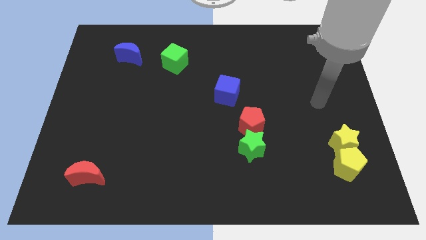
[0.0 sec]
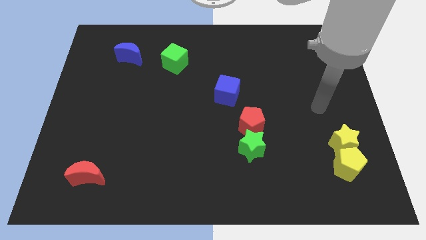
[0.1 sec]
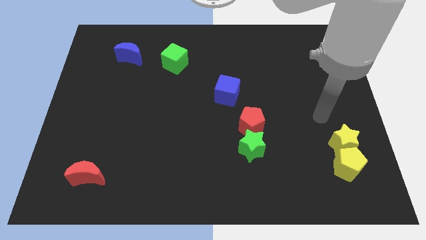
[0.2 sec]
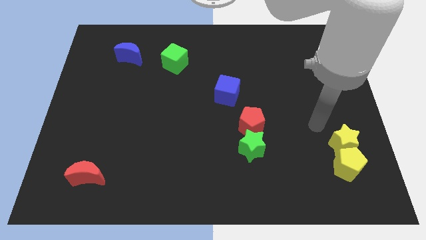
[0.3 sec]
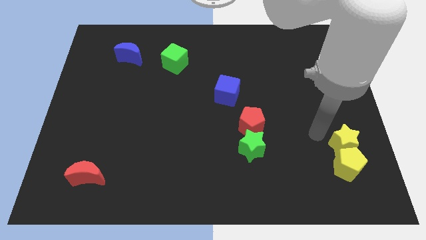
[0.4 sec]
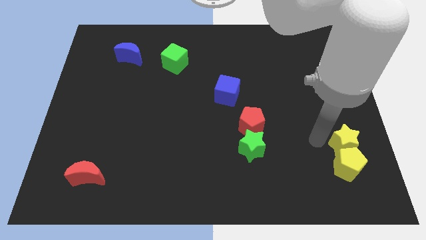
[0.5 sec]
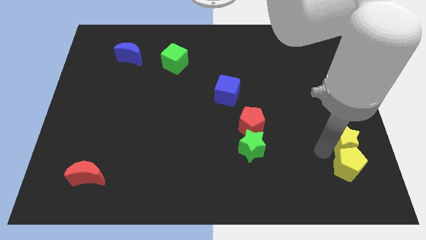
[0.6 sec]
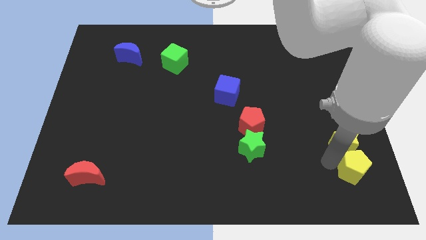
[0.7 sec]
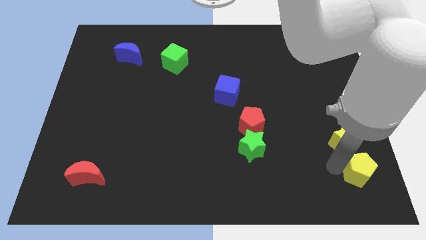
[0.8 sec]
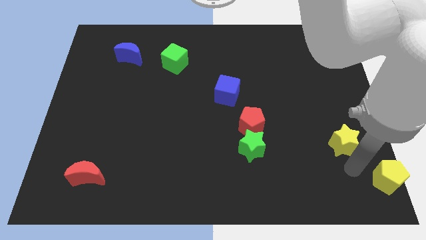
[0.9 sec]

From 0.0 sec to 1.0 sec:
separate the yellow star from the yellow pentagon

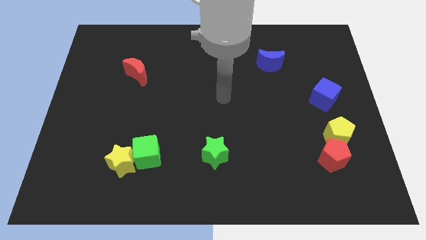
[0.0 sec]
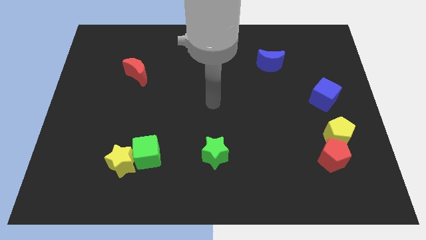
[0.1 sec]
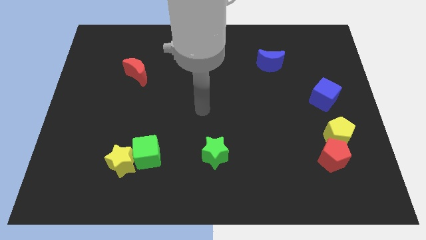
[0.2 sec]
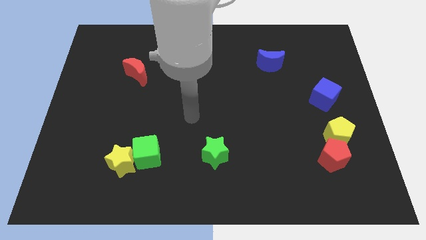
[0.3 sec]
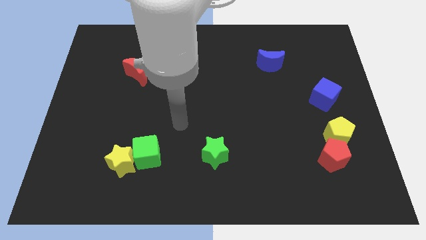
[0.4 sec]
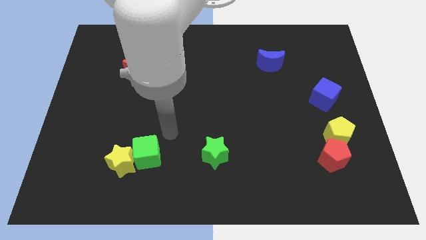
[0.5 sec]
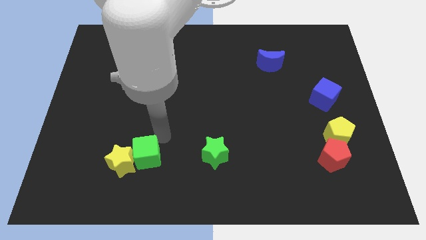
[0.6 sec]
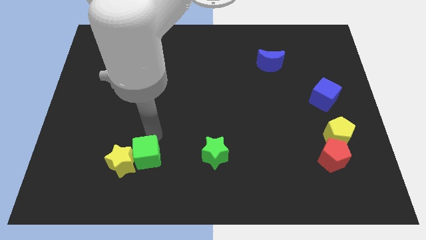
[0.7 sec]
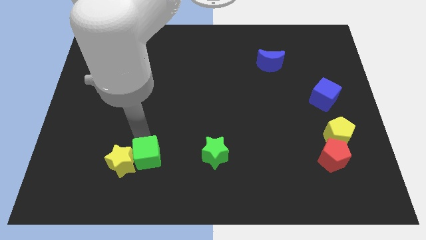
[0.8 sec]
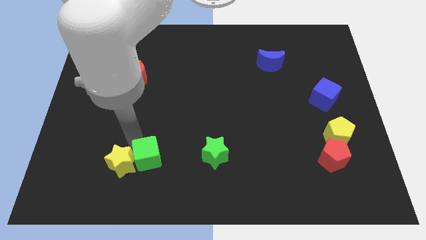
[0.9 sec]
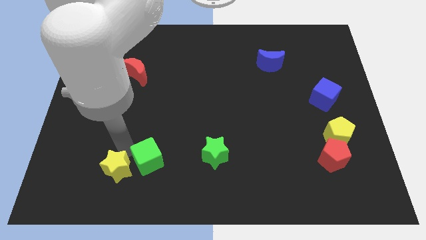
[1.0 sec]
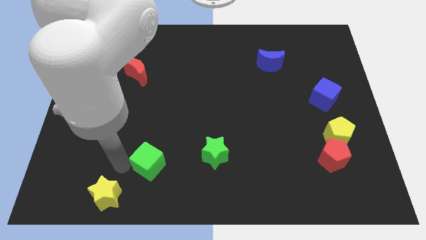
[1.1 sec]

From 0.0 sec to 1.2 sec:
pull the green cube apart from the yellow star

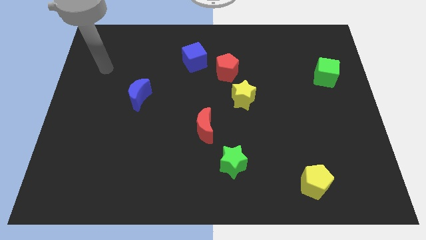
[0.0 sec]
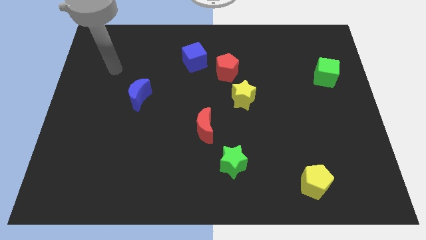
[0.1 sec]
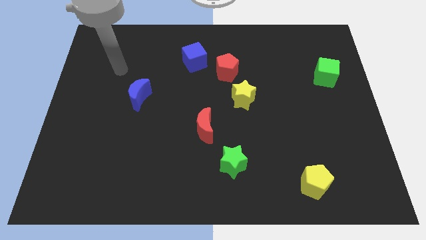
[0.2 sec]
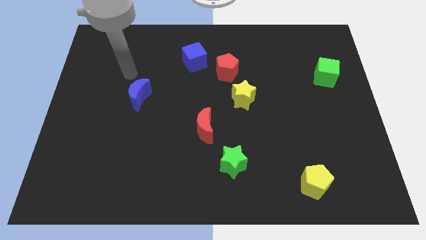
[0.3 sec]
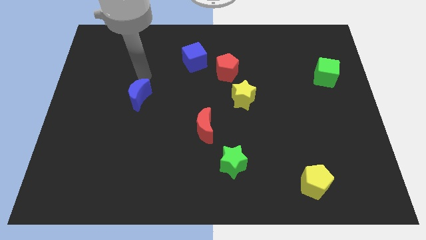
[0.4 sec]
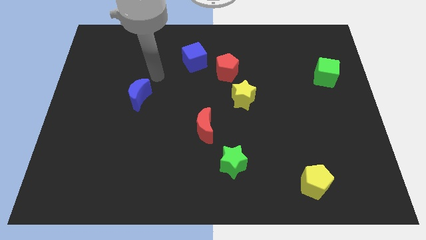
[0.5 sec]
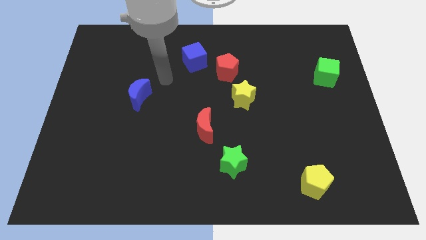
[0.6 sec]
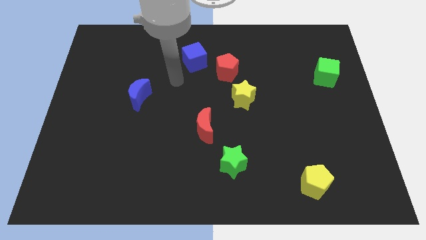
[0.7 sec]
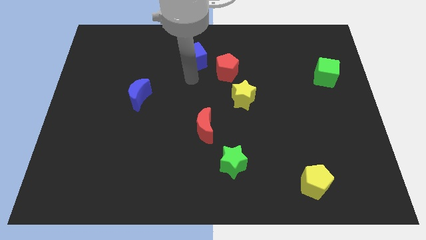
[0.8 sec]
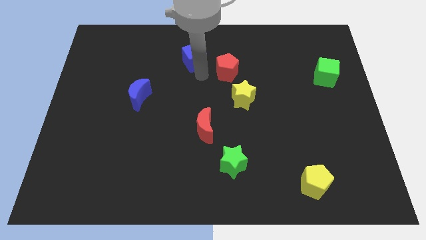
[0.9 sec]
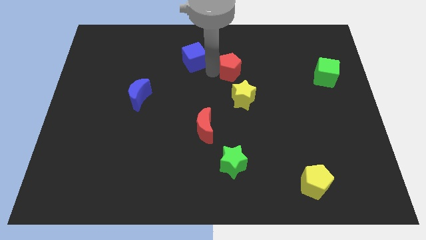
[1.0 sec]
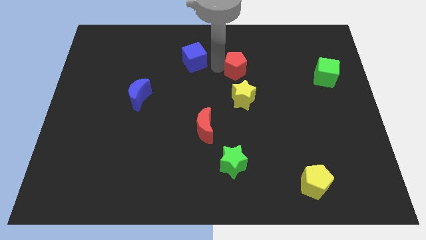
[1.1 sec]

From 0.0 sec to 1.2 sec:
separate the blue cube from the red pentagon

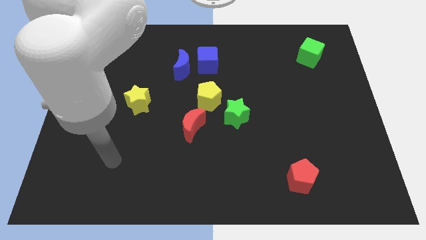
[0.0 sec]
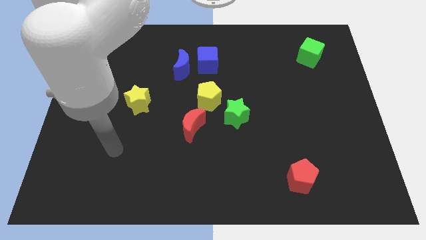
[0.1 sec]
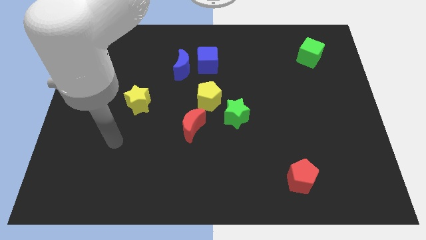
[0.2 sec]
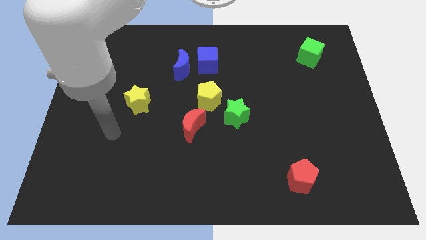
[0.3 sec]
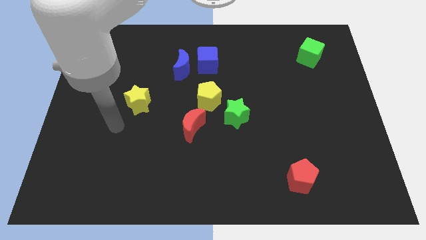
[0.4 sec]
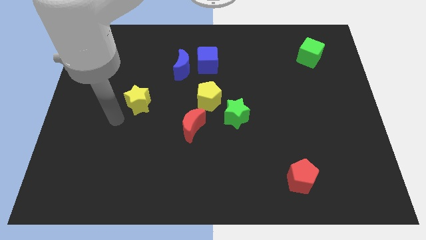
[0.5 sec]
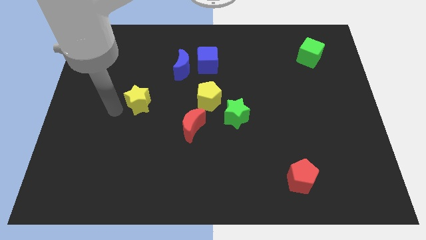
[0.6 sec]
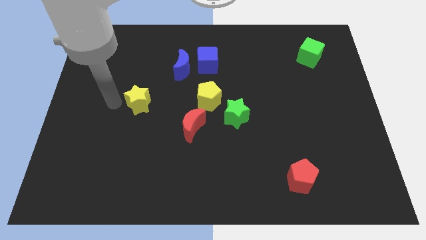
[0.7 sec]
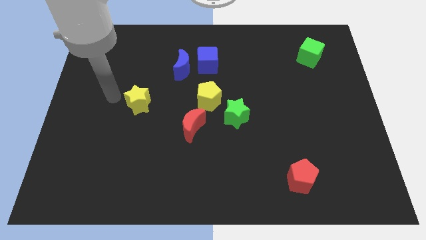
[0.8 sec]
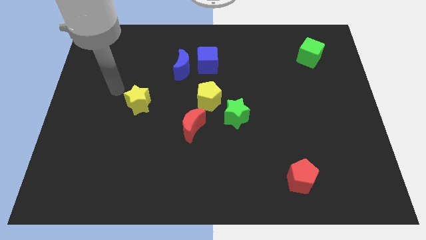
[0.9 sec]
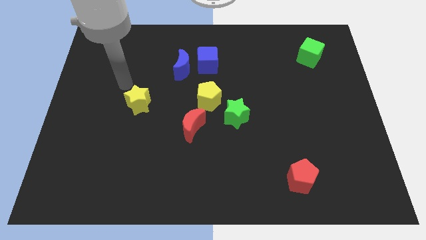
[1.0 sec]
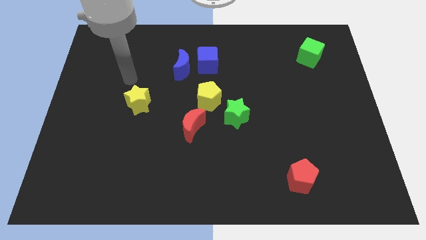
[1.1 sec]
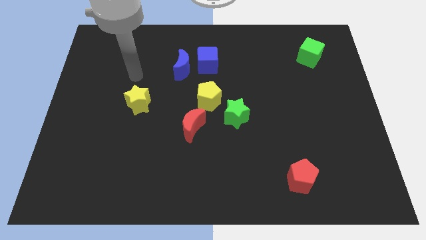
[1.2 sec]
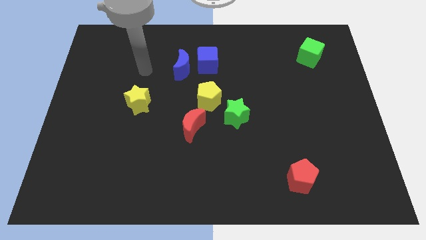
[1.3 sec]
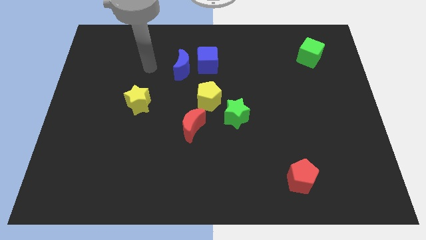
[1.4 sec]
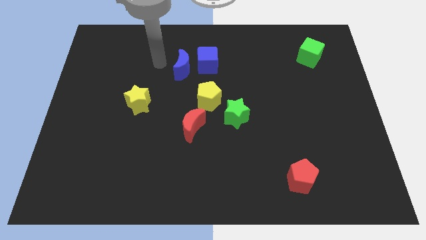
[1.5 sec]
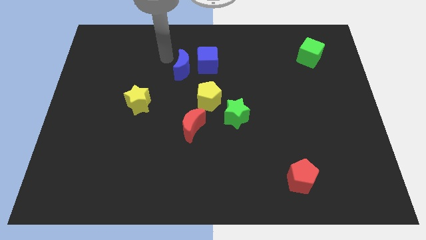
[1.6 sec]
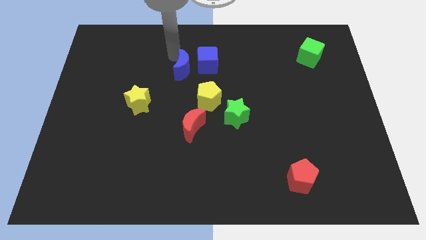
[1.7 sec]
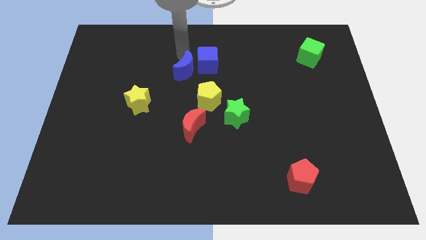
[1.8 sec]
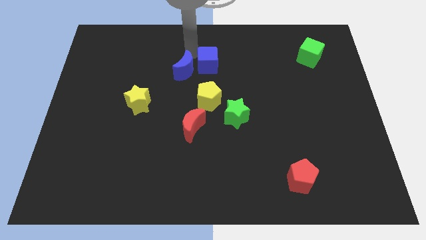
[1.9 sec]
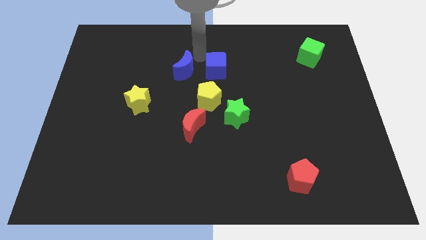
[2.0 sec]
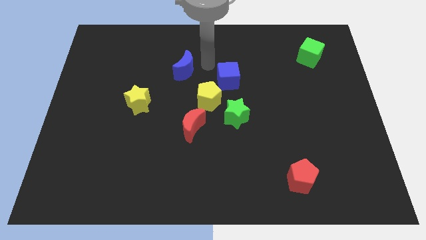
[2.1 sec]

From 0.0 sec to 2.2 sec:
move the blue moon away from the blue cube

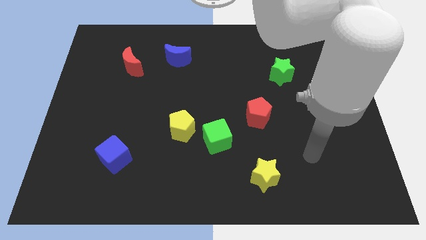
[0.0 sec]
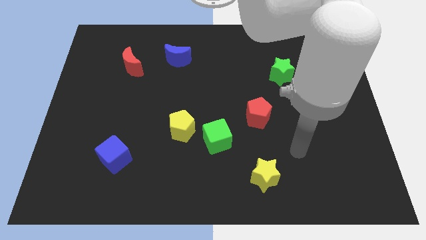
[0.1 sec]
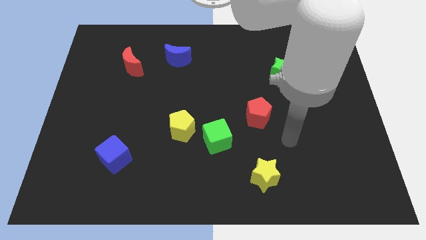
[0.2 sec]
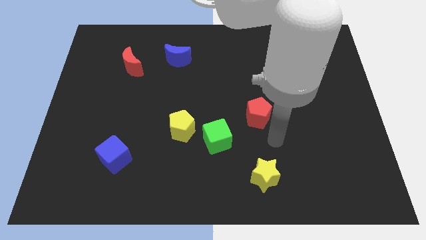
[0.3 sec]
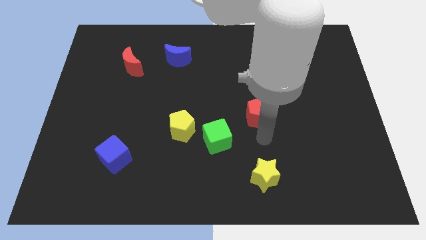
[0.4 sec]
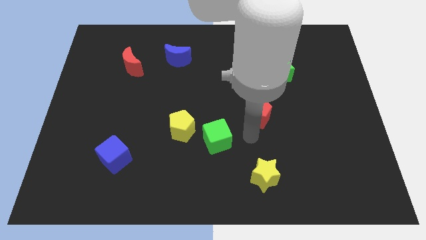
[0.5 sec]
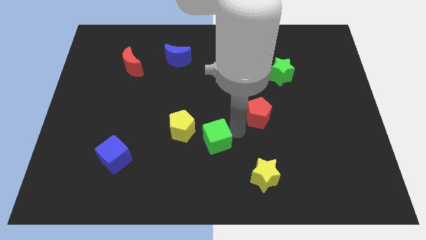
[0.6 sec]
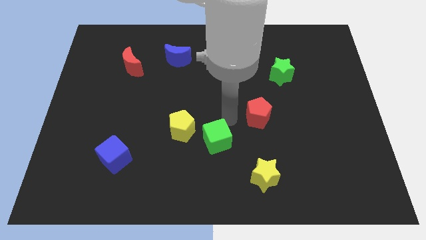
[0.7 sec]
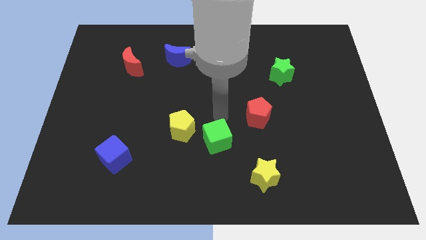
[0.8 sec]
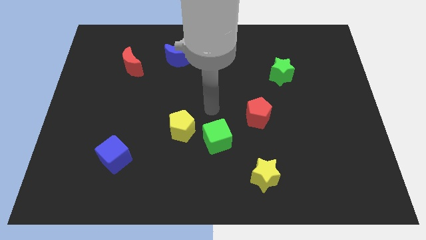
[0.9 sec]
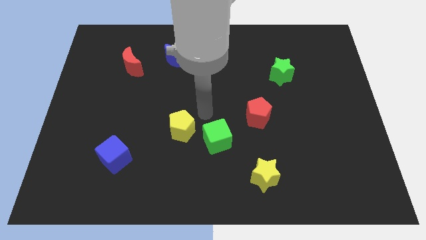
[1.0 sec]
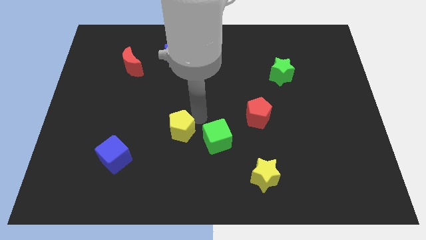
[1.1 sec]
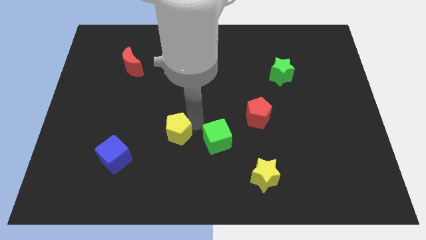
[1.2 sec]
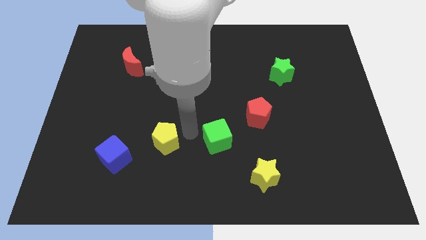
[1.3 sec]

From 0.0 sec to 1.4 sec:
move the green cube away from the yellow pentagon

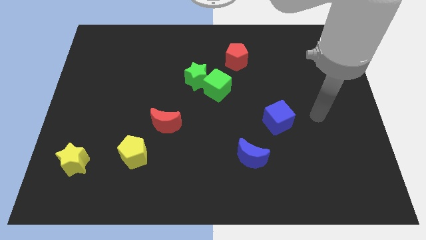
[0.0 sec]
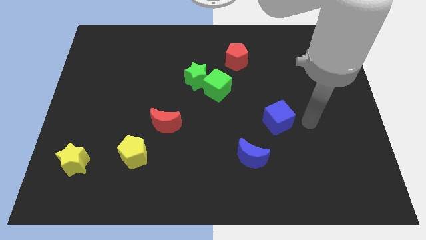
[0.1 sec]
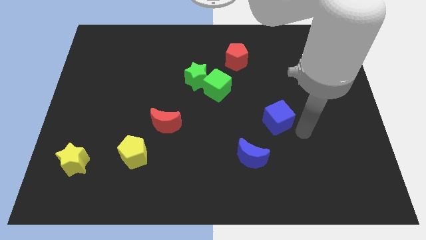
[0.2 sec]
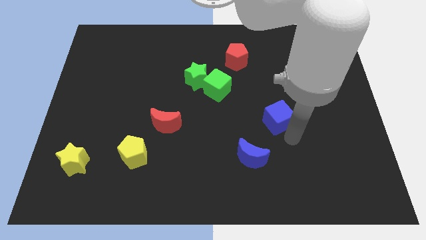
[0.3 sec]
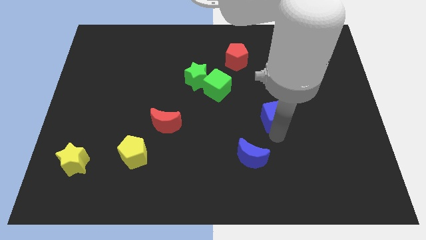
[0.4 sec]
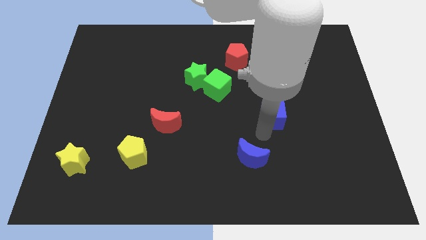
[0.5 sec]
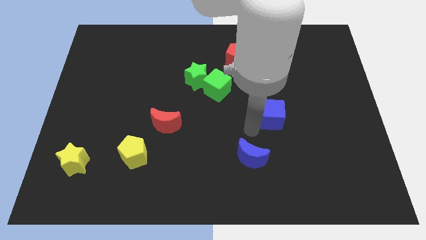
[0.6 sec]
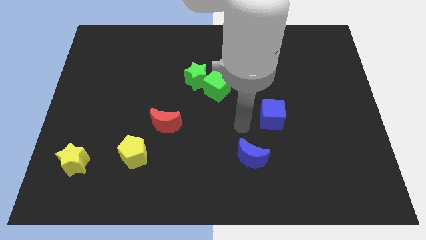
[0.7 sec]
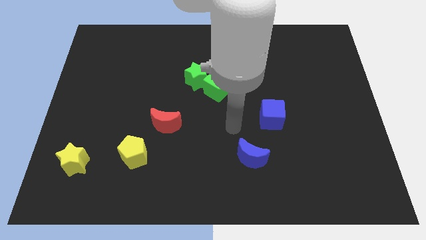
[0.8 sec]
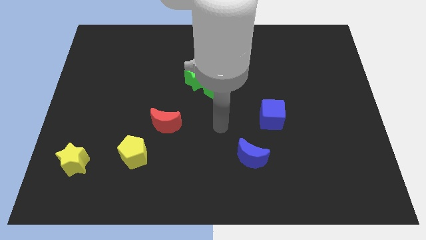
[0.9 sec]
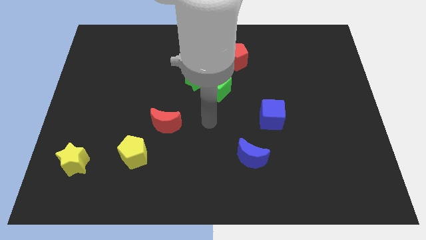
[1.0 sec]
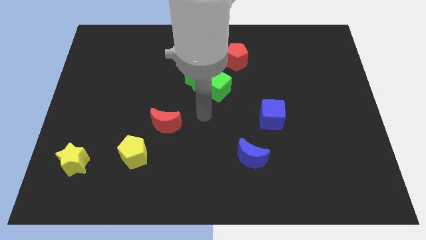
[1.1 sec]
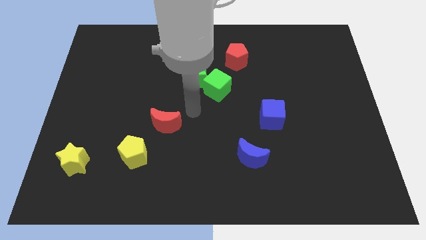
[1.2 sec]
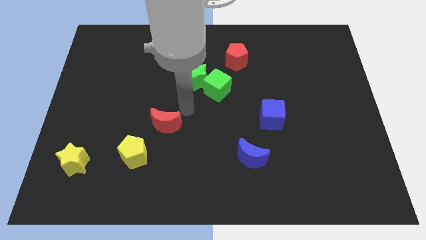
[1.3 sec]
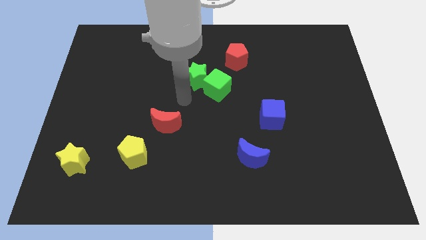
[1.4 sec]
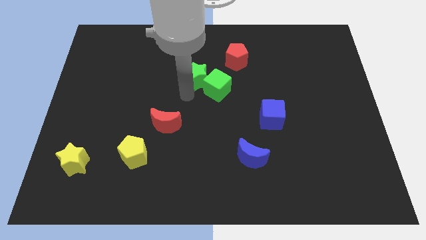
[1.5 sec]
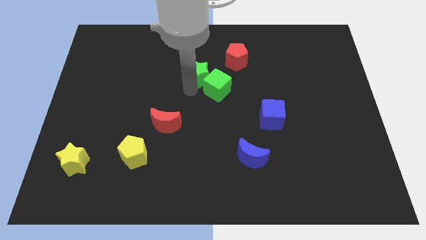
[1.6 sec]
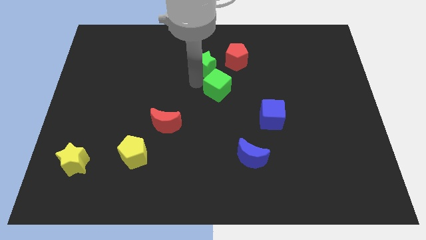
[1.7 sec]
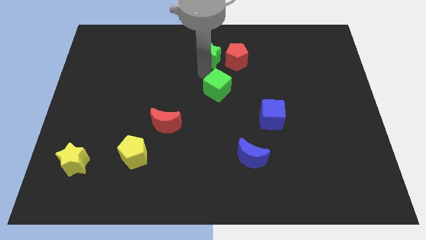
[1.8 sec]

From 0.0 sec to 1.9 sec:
separate the green cube from the green star

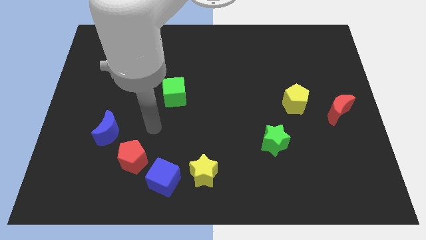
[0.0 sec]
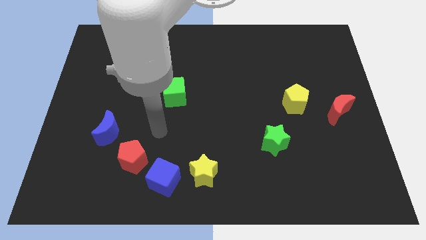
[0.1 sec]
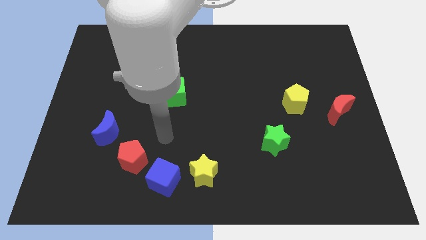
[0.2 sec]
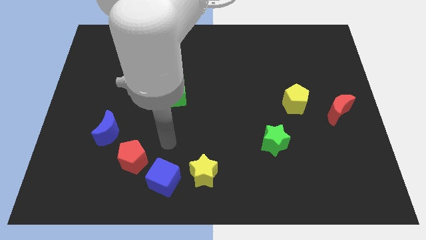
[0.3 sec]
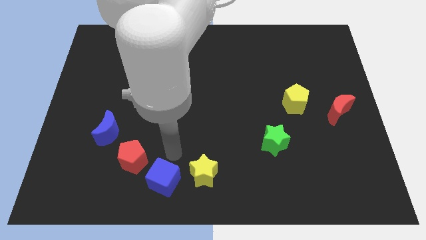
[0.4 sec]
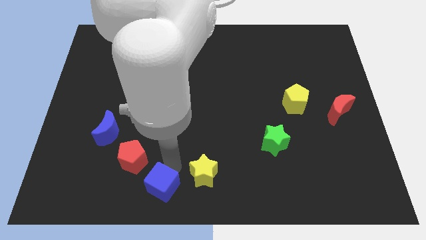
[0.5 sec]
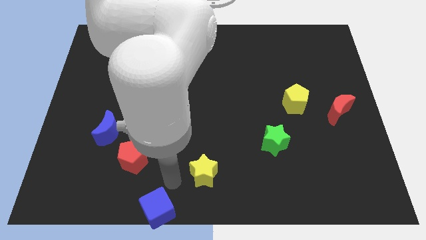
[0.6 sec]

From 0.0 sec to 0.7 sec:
separate the yellow star from the blue cube
